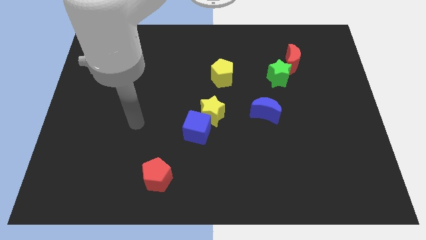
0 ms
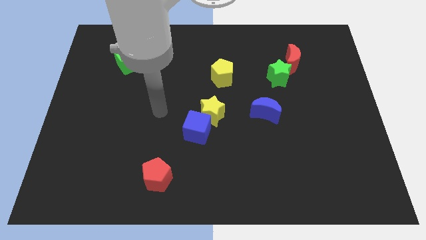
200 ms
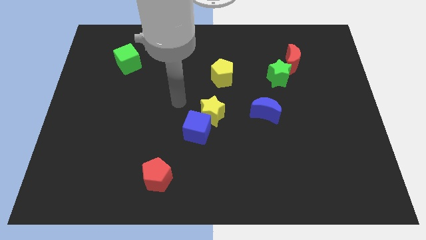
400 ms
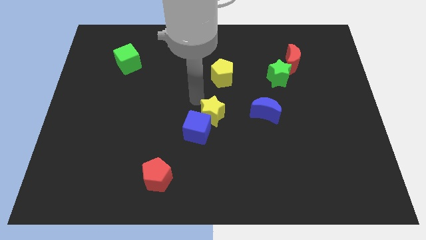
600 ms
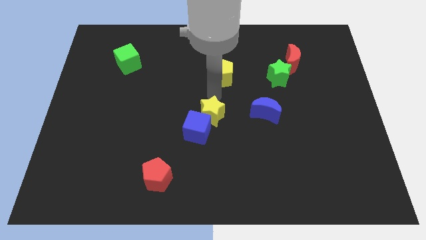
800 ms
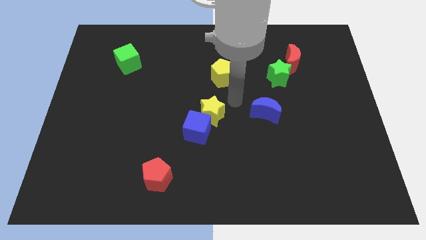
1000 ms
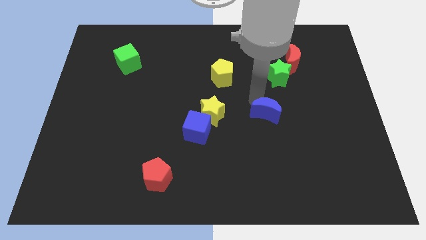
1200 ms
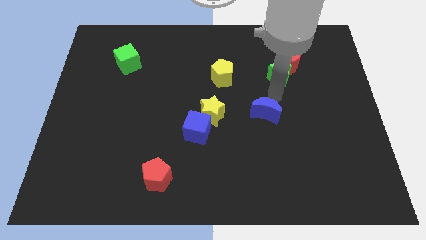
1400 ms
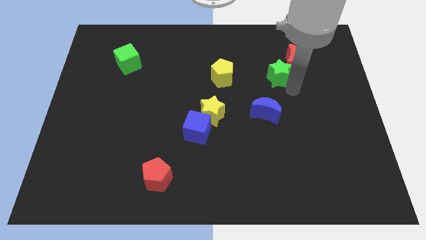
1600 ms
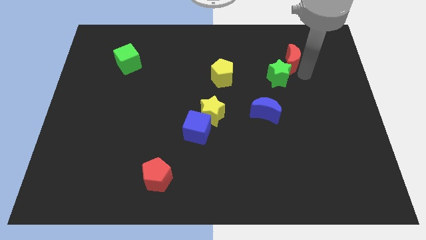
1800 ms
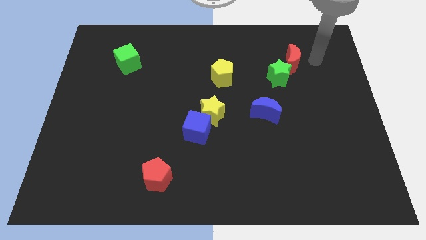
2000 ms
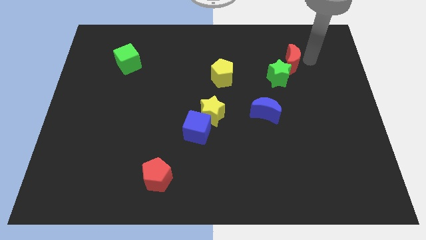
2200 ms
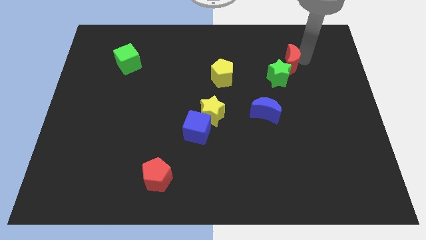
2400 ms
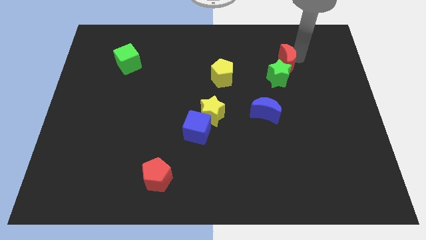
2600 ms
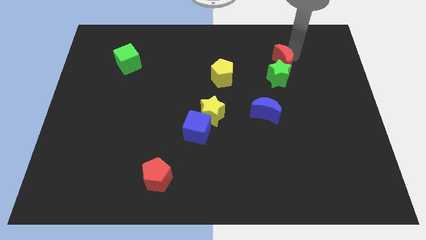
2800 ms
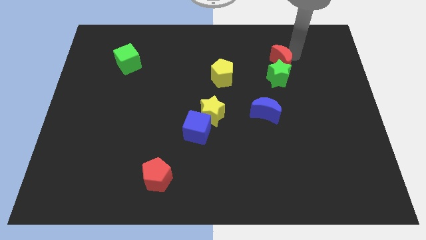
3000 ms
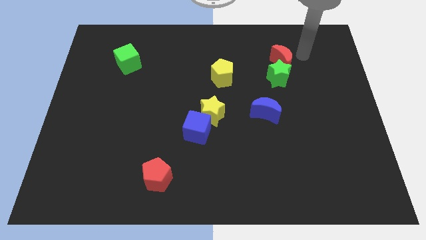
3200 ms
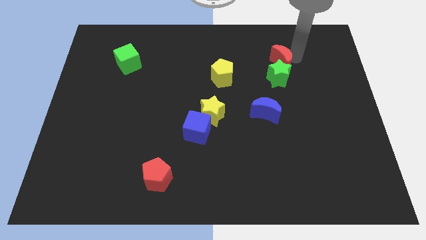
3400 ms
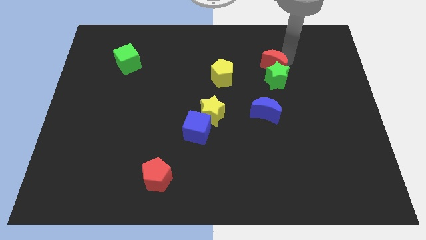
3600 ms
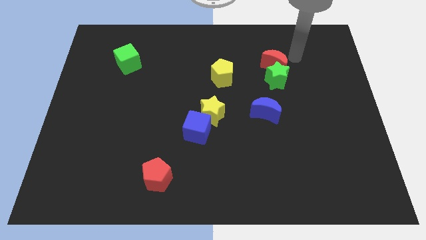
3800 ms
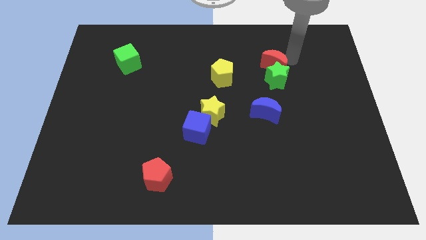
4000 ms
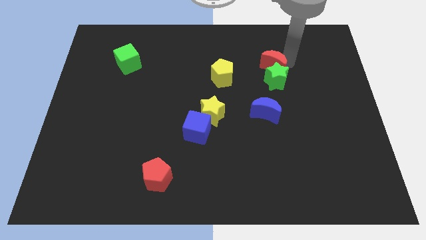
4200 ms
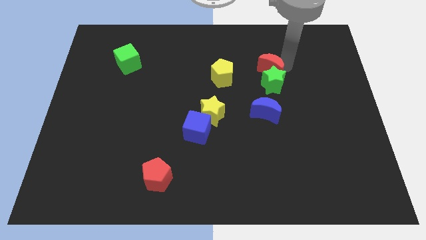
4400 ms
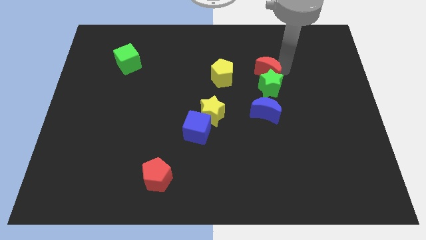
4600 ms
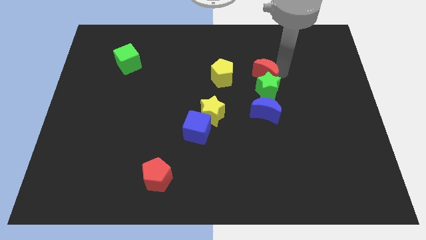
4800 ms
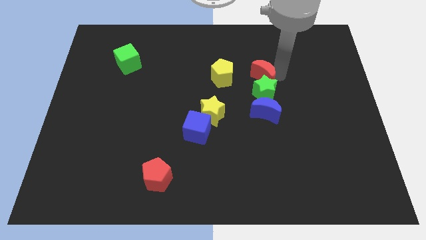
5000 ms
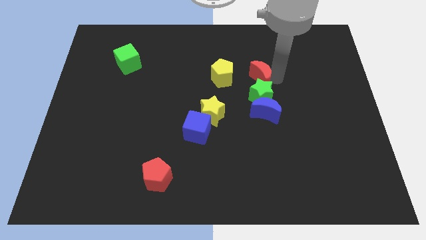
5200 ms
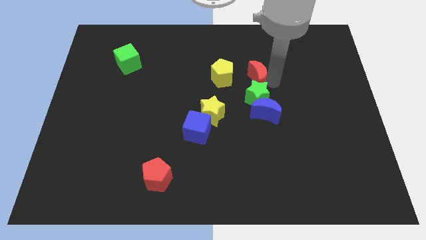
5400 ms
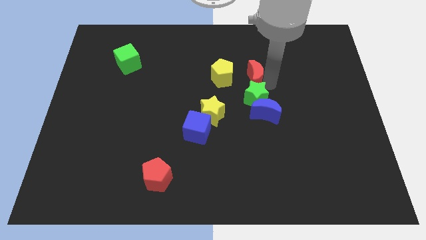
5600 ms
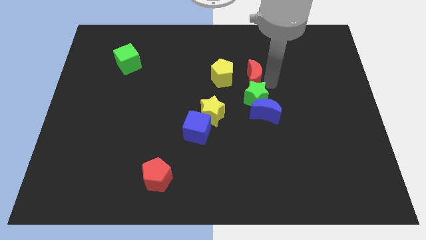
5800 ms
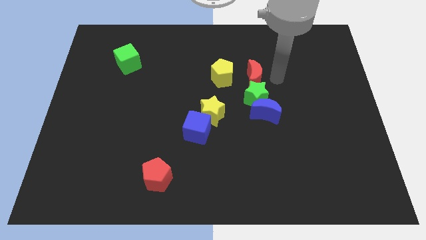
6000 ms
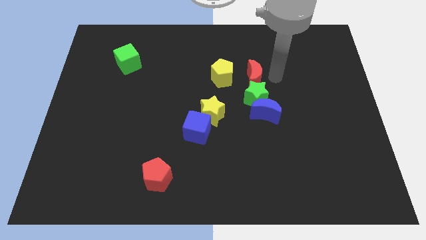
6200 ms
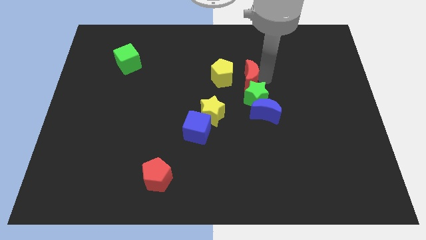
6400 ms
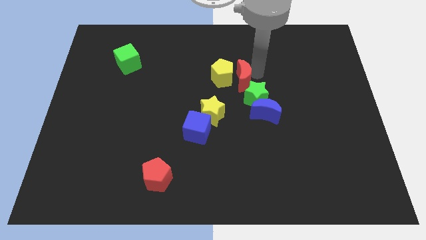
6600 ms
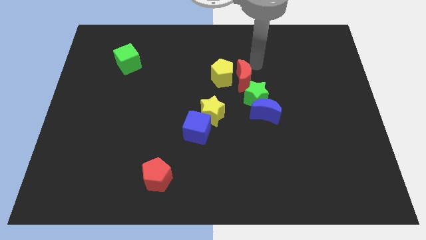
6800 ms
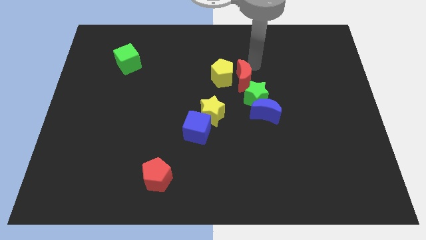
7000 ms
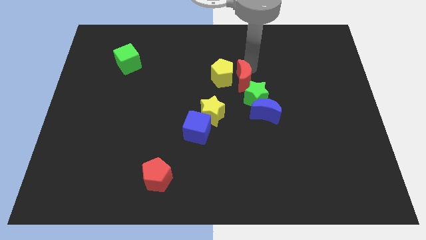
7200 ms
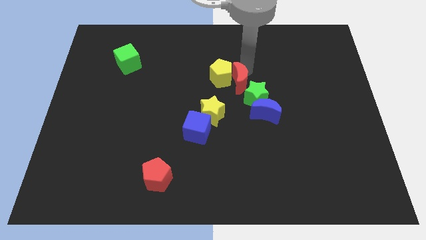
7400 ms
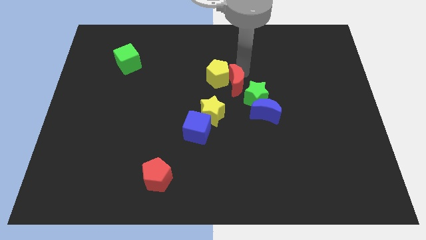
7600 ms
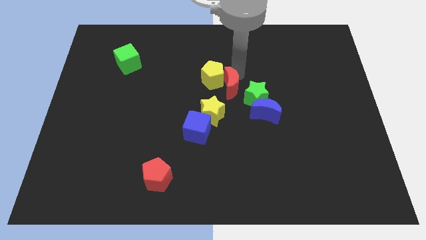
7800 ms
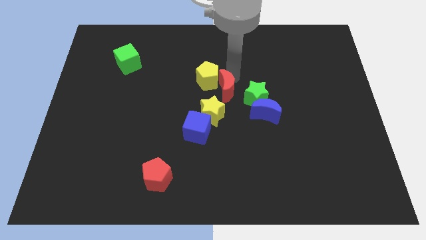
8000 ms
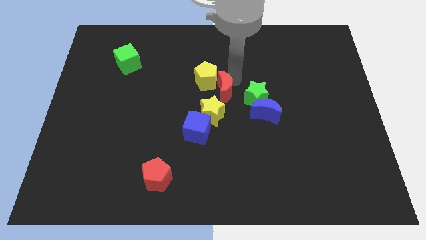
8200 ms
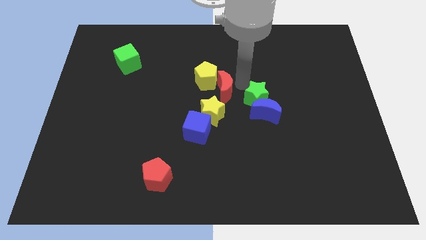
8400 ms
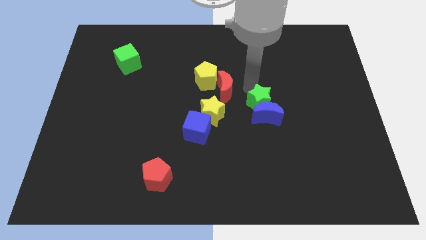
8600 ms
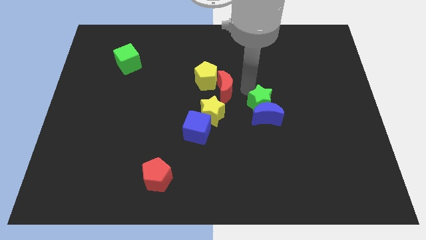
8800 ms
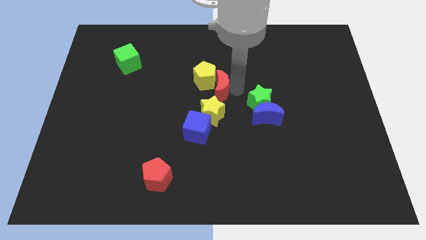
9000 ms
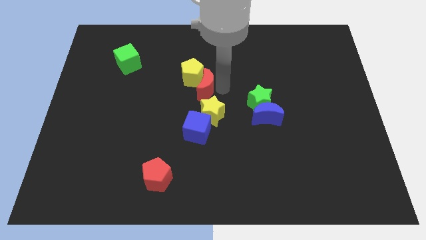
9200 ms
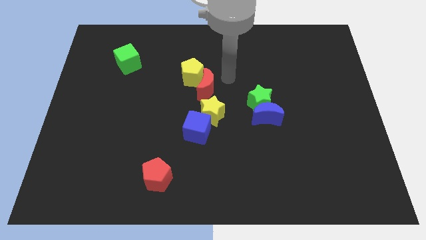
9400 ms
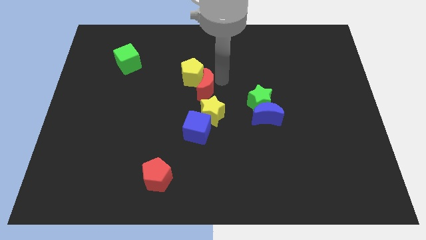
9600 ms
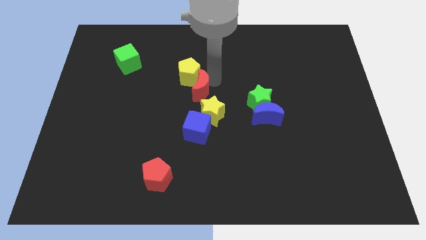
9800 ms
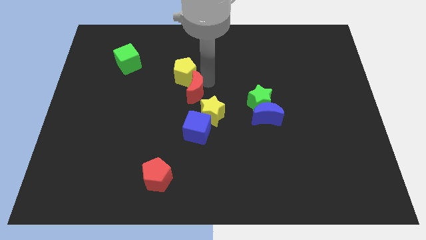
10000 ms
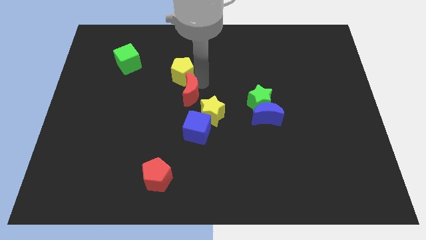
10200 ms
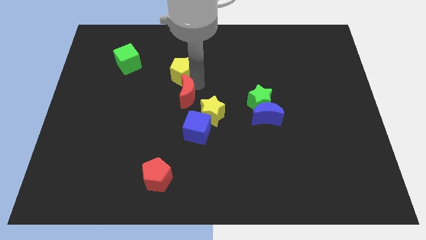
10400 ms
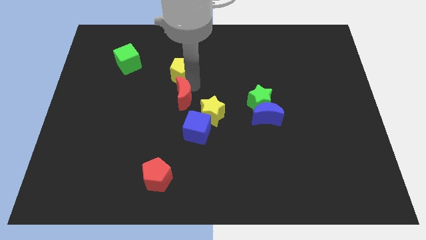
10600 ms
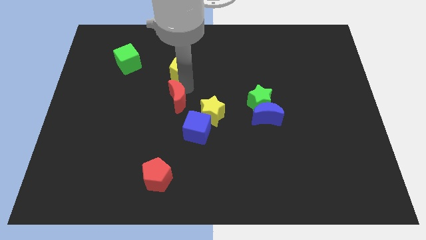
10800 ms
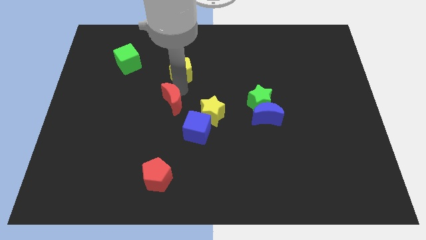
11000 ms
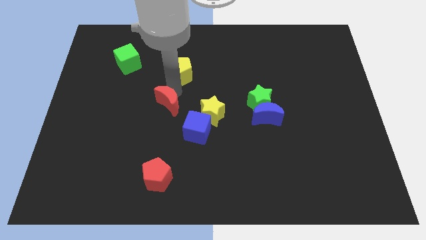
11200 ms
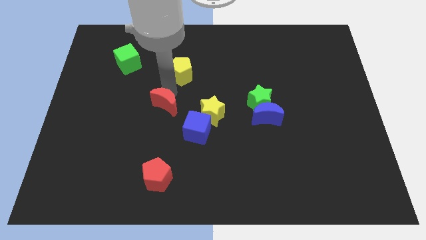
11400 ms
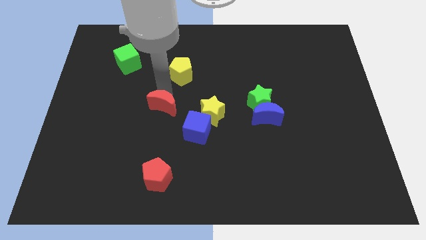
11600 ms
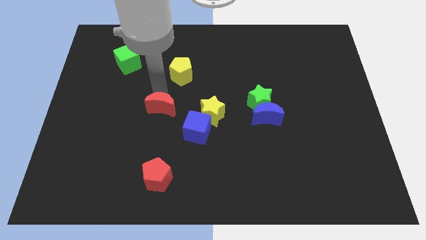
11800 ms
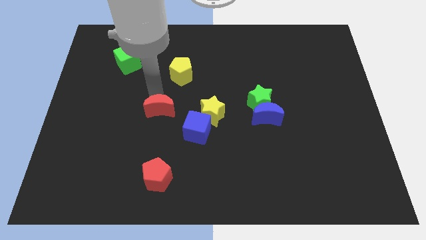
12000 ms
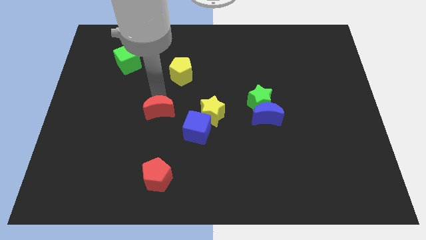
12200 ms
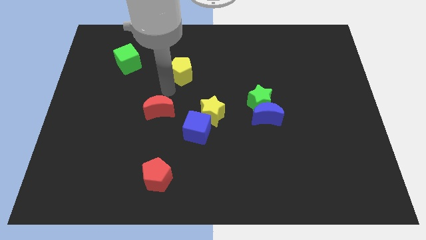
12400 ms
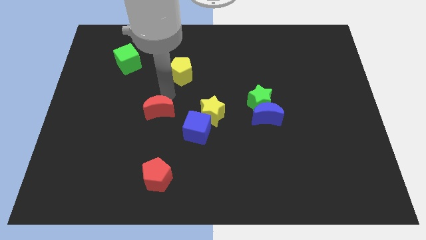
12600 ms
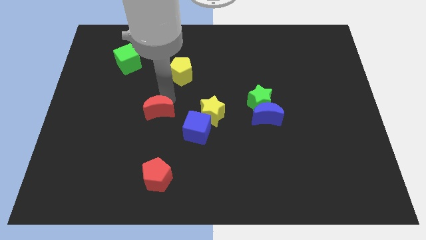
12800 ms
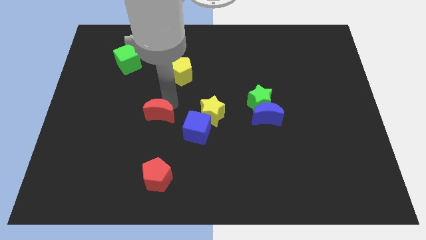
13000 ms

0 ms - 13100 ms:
push the red moon to the left side of the blue cube

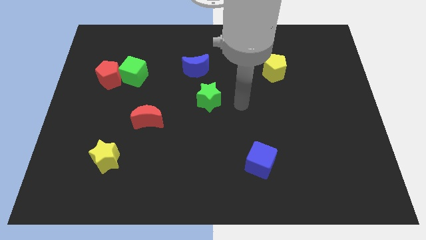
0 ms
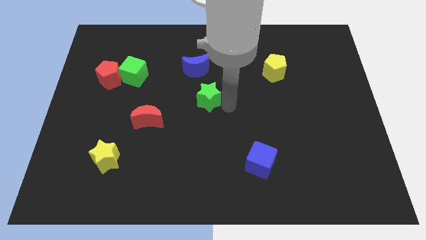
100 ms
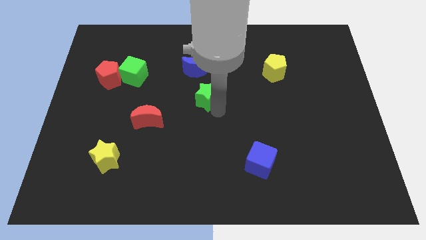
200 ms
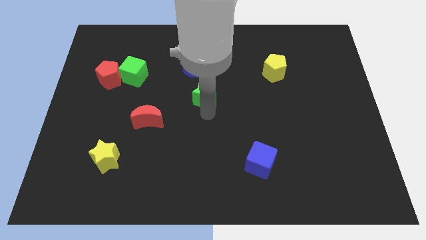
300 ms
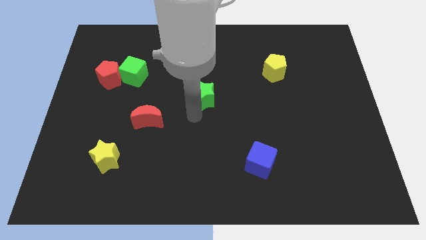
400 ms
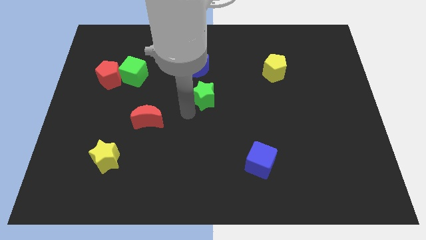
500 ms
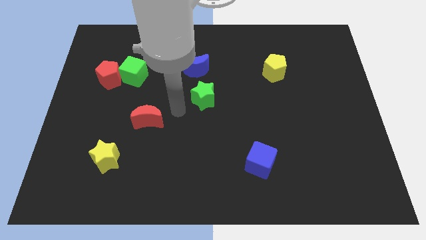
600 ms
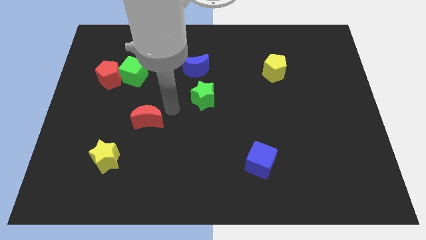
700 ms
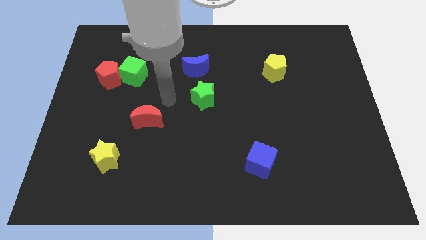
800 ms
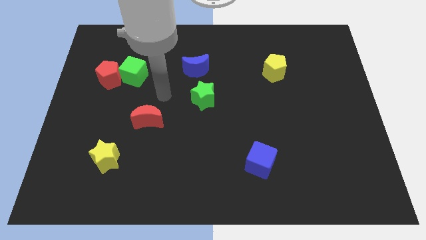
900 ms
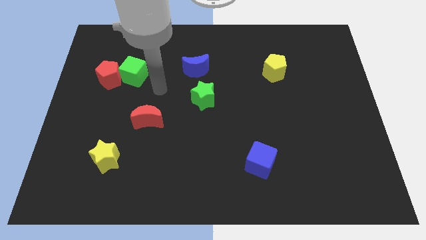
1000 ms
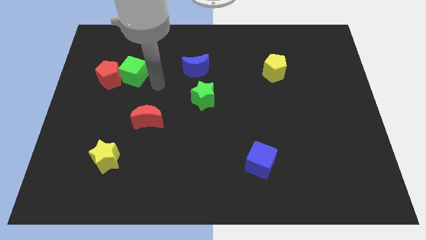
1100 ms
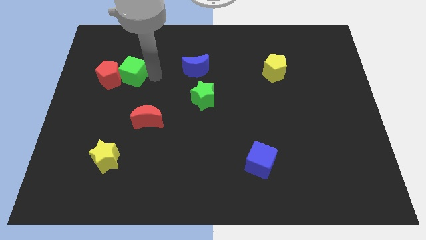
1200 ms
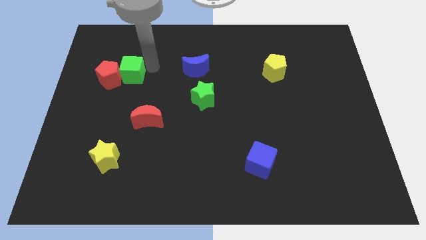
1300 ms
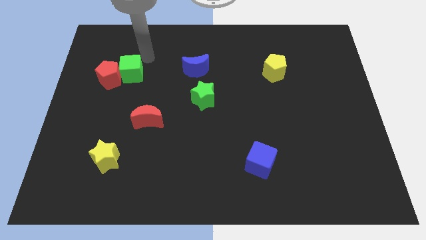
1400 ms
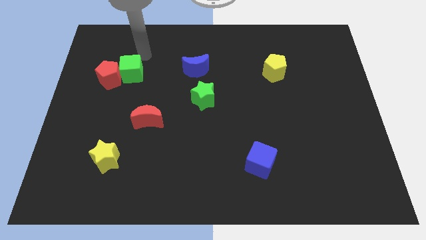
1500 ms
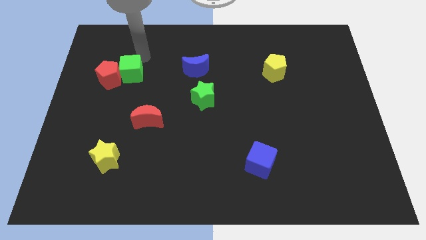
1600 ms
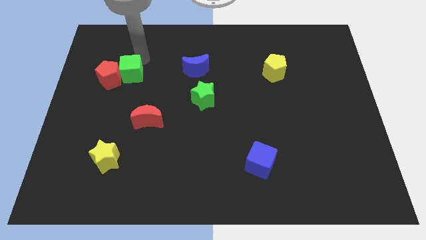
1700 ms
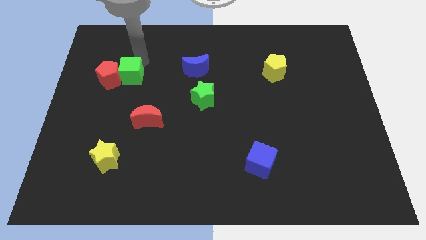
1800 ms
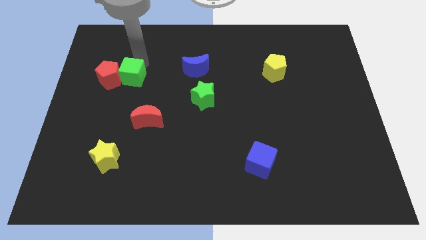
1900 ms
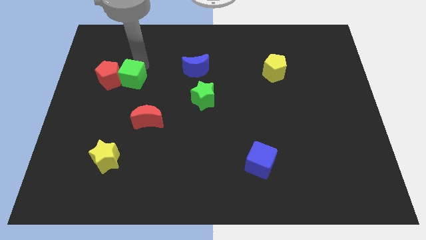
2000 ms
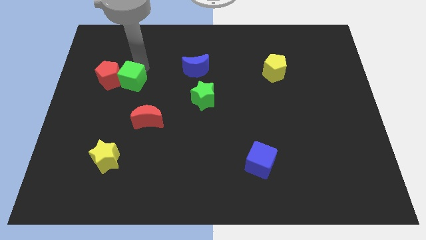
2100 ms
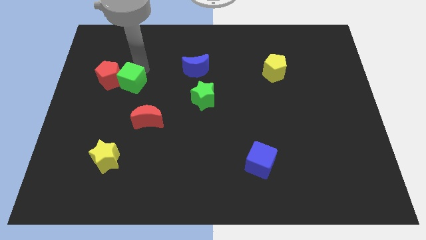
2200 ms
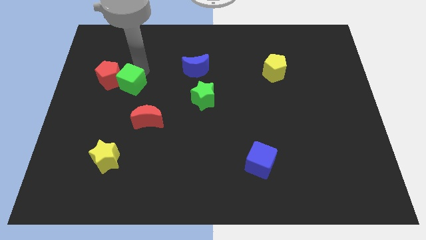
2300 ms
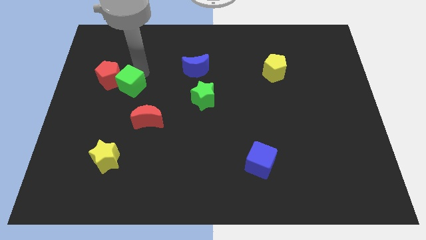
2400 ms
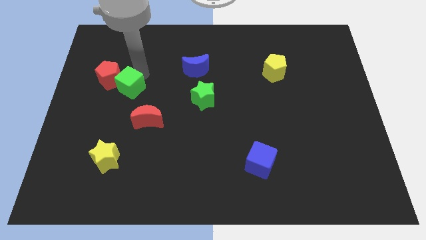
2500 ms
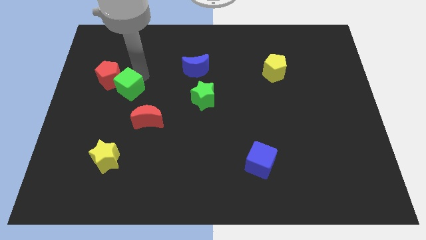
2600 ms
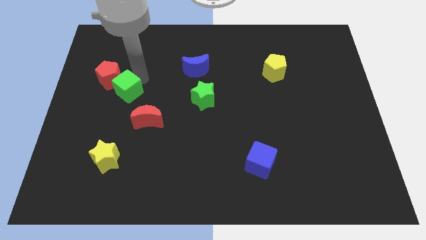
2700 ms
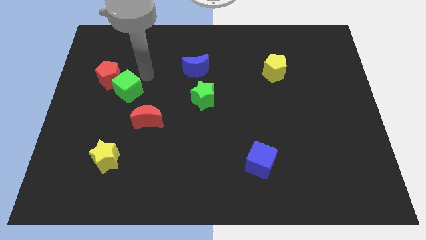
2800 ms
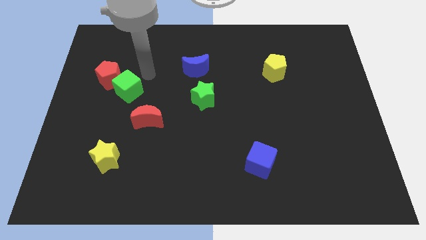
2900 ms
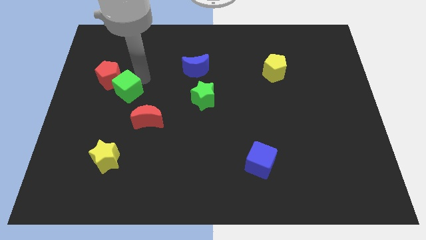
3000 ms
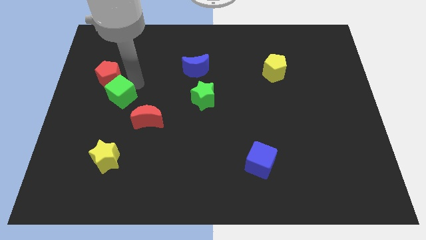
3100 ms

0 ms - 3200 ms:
put the green cube to the bottom side of the red pentagon
